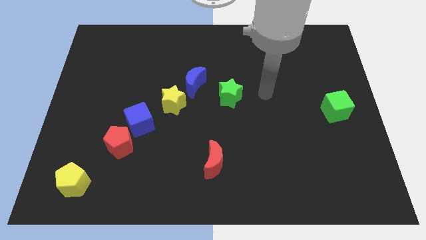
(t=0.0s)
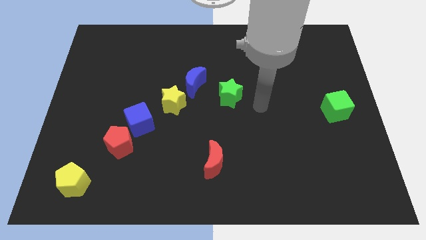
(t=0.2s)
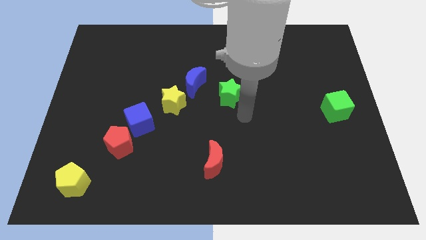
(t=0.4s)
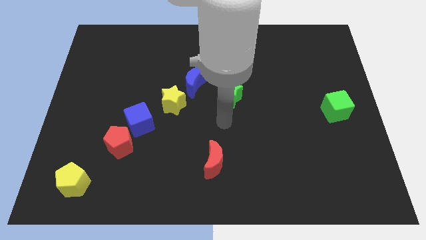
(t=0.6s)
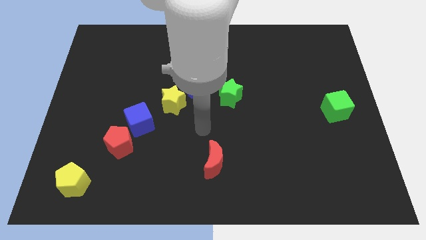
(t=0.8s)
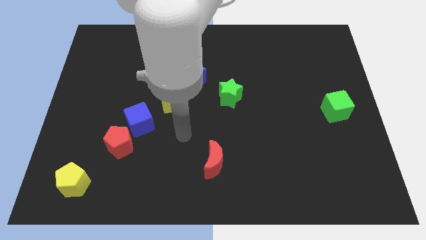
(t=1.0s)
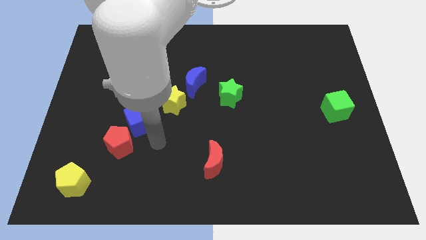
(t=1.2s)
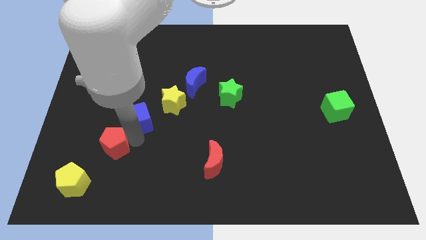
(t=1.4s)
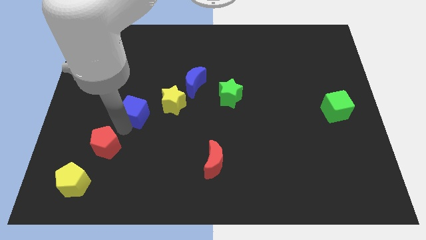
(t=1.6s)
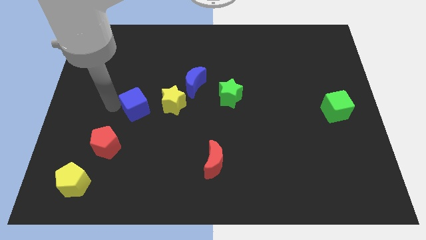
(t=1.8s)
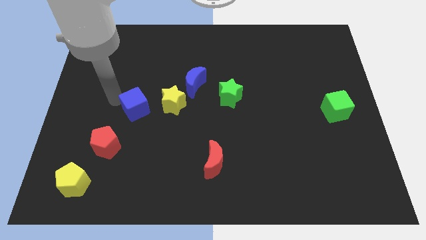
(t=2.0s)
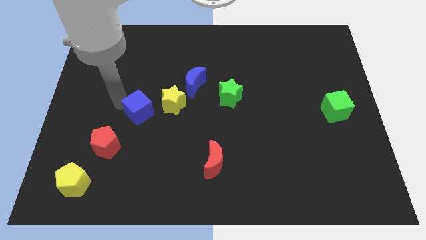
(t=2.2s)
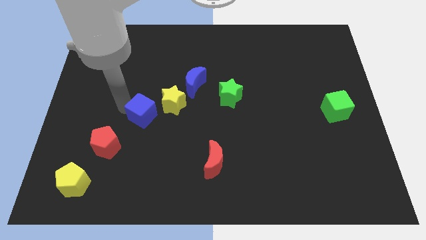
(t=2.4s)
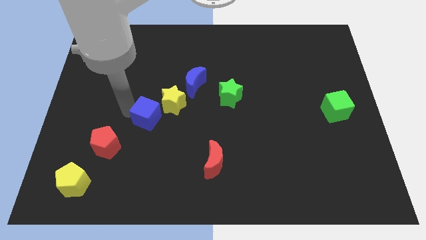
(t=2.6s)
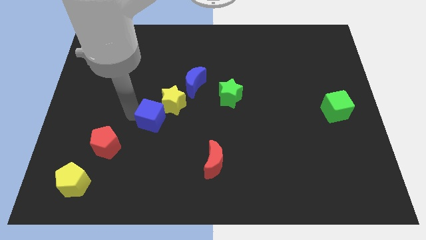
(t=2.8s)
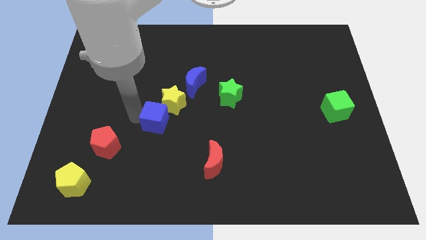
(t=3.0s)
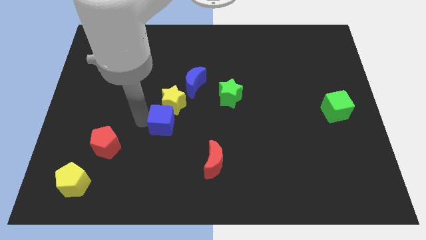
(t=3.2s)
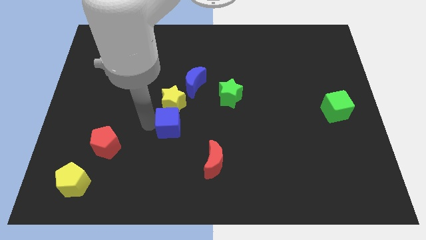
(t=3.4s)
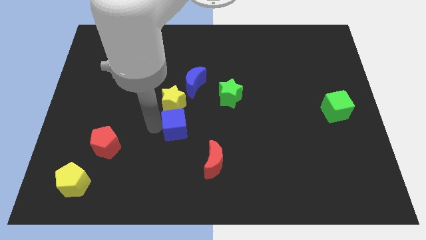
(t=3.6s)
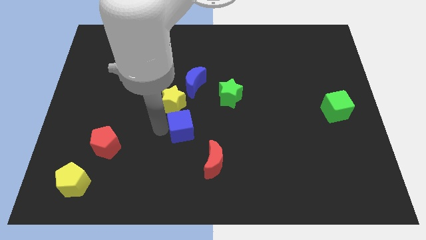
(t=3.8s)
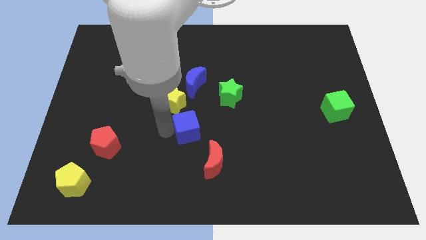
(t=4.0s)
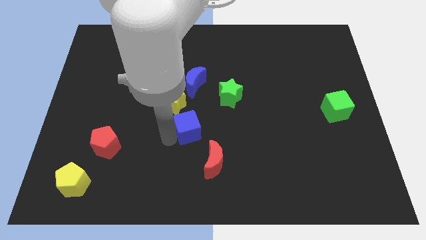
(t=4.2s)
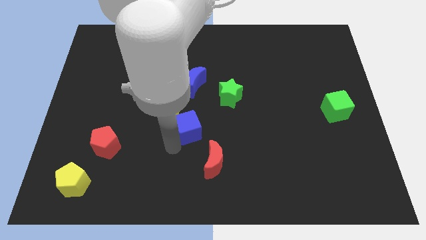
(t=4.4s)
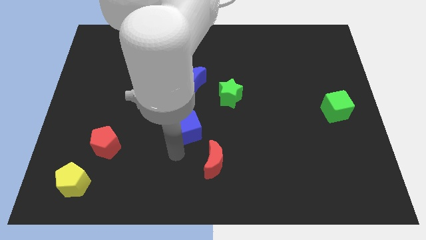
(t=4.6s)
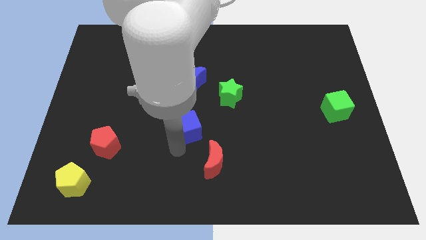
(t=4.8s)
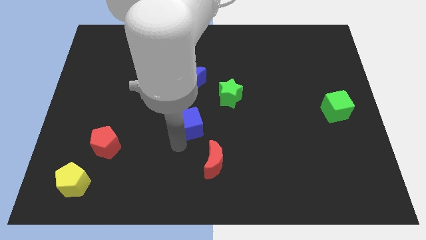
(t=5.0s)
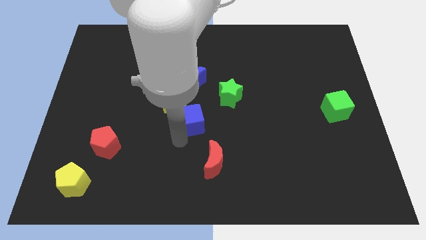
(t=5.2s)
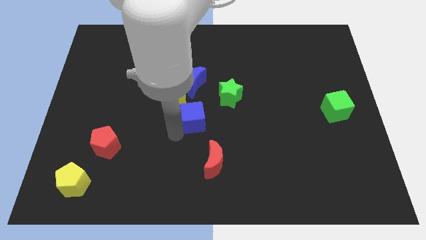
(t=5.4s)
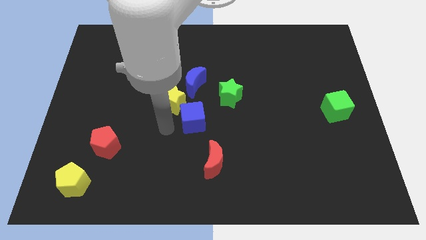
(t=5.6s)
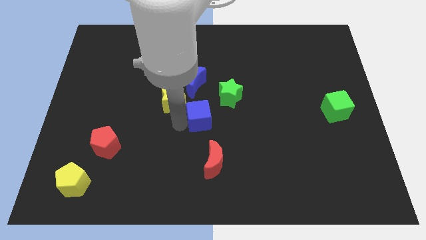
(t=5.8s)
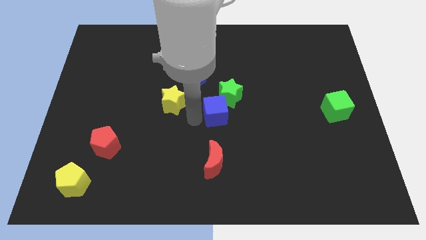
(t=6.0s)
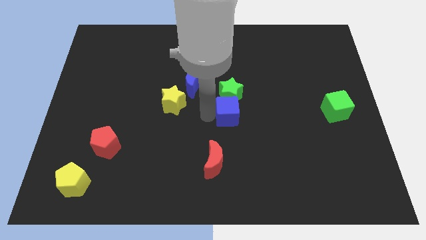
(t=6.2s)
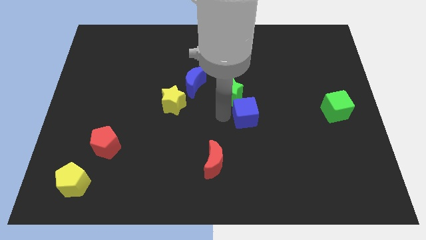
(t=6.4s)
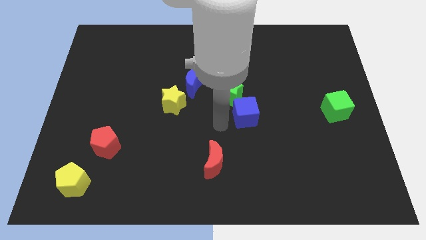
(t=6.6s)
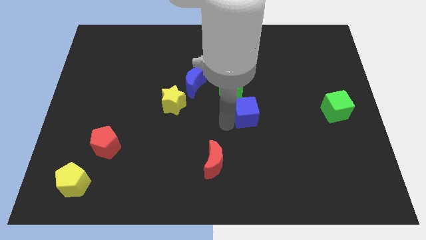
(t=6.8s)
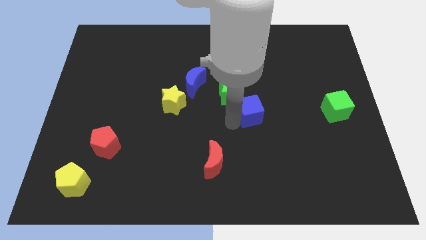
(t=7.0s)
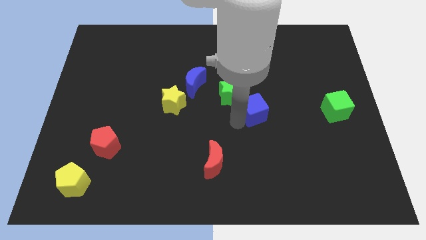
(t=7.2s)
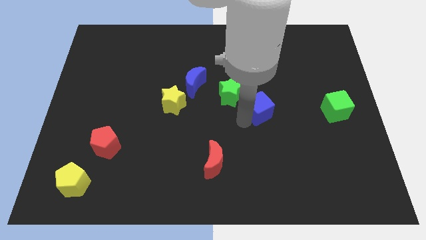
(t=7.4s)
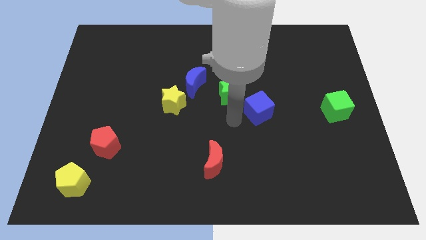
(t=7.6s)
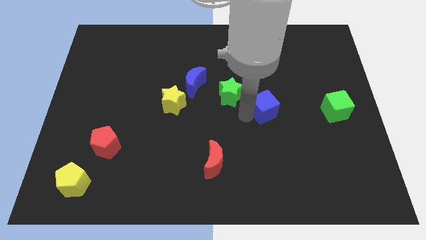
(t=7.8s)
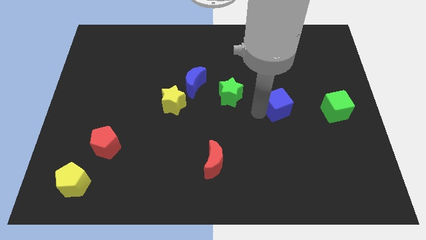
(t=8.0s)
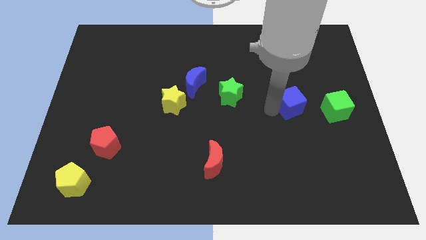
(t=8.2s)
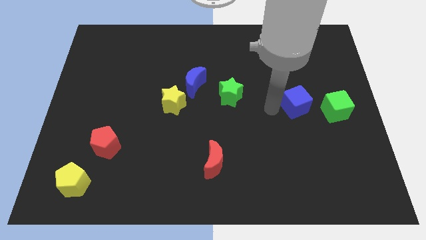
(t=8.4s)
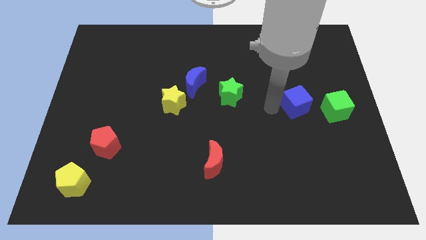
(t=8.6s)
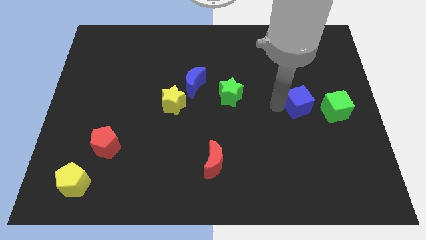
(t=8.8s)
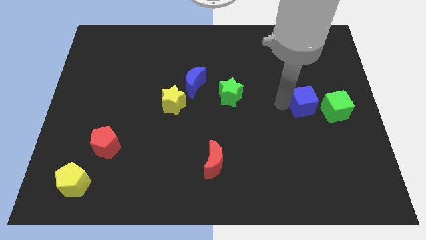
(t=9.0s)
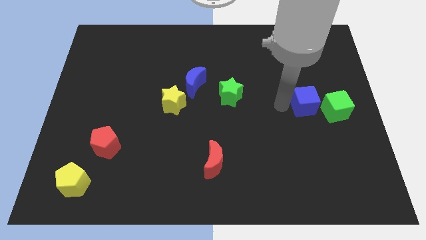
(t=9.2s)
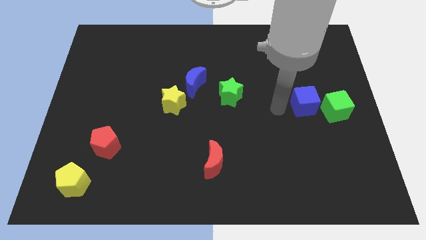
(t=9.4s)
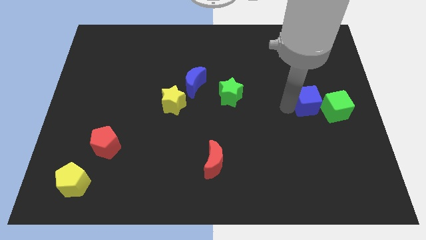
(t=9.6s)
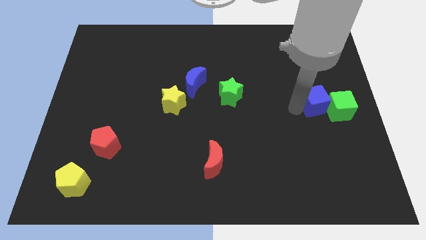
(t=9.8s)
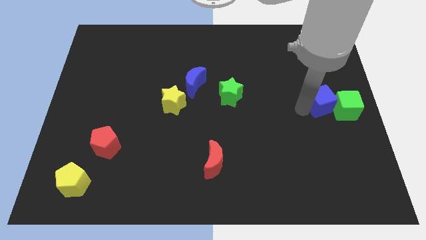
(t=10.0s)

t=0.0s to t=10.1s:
move the blue cube to the right side

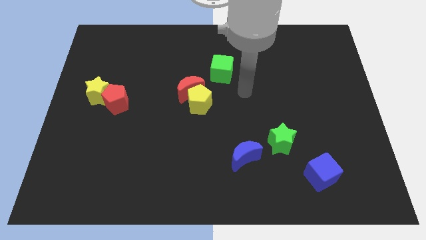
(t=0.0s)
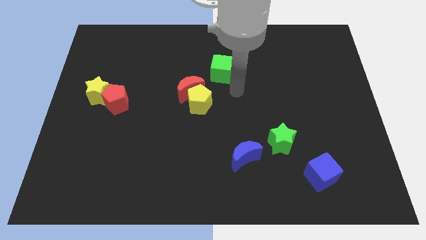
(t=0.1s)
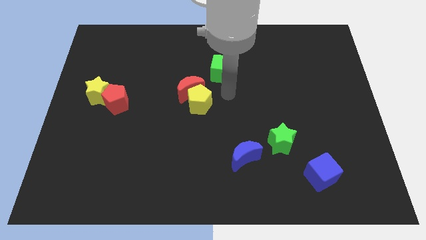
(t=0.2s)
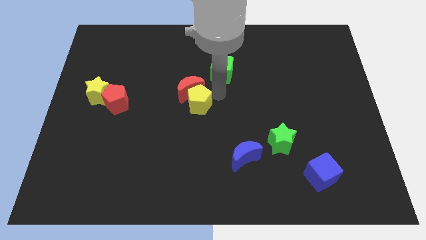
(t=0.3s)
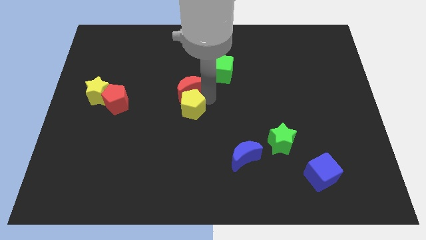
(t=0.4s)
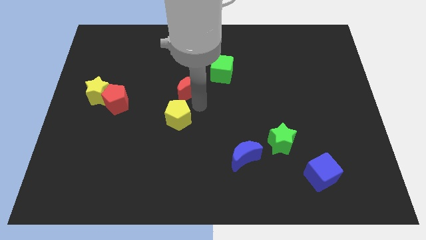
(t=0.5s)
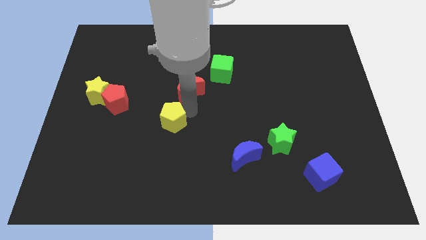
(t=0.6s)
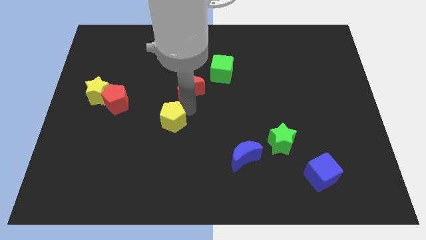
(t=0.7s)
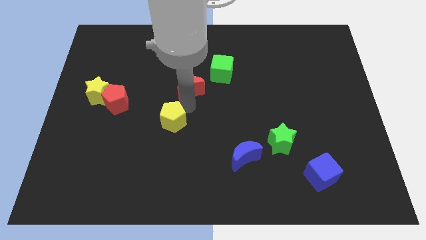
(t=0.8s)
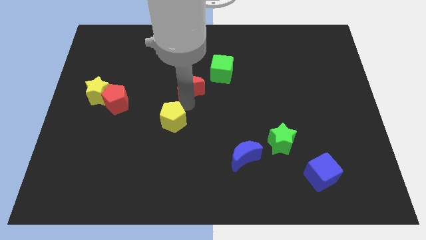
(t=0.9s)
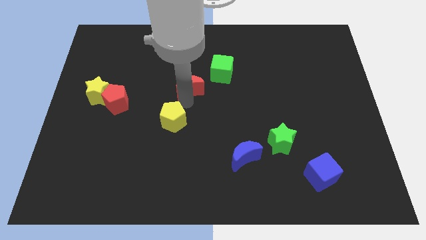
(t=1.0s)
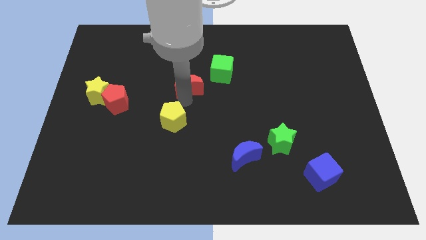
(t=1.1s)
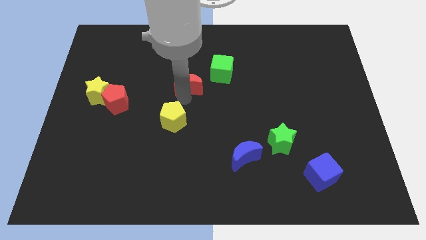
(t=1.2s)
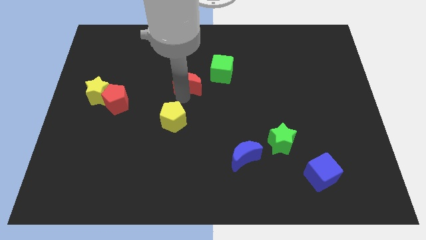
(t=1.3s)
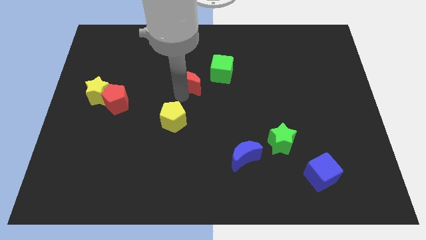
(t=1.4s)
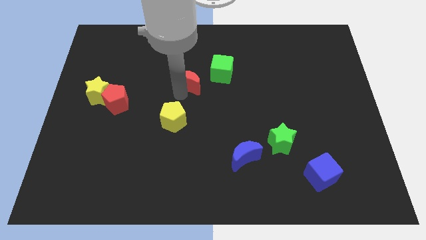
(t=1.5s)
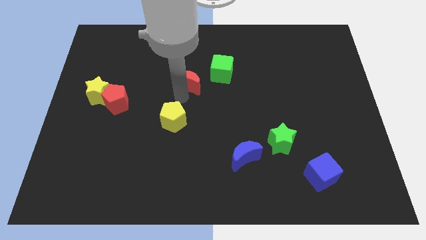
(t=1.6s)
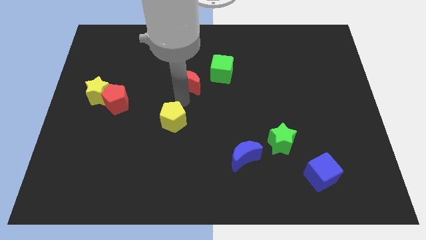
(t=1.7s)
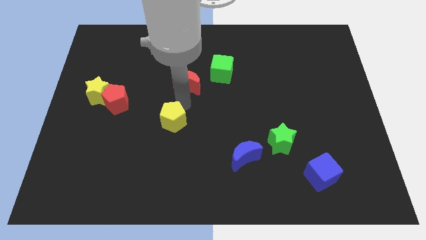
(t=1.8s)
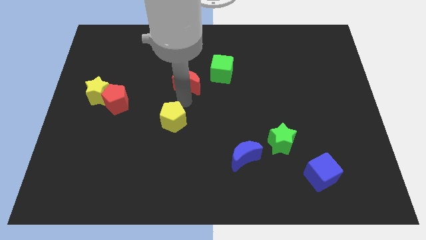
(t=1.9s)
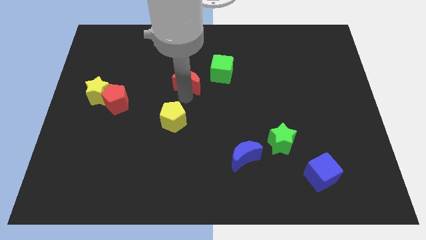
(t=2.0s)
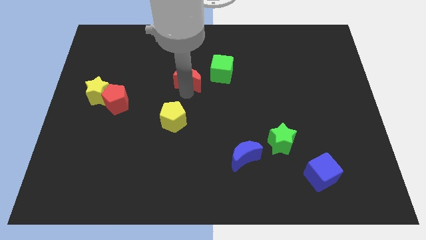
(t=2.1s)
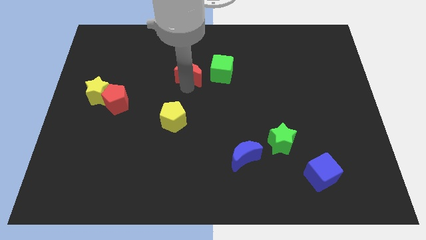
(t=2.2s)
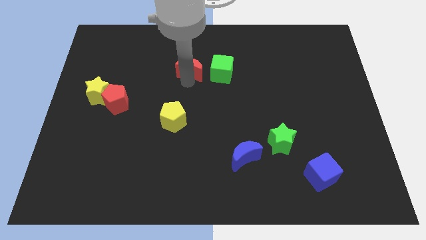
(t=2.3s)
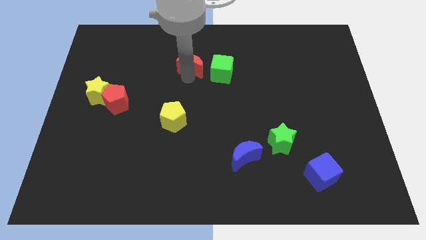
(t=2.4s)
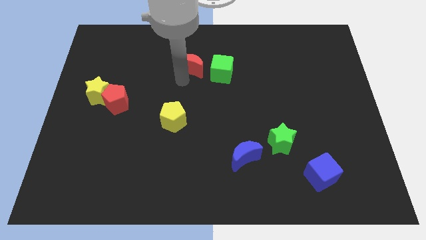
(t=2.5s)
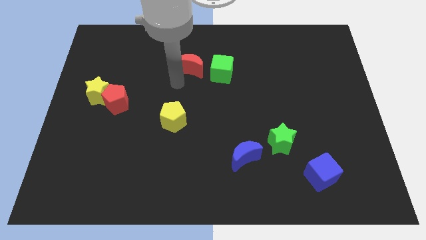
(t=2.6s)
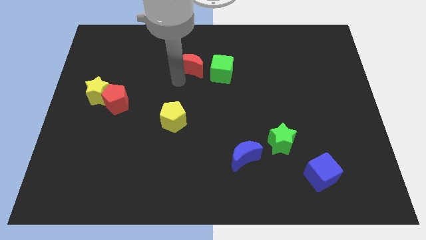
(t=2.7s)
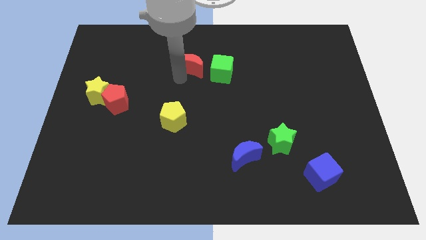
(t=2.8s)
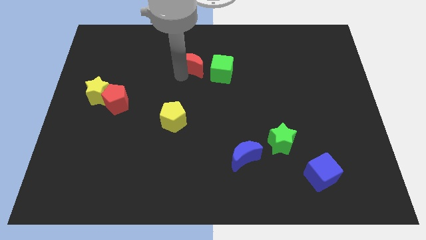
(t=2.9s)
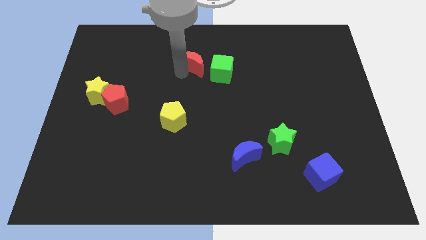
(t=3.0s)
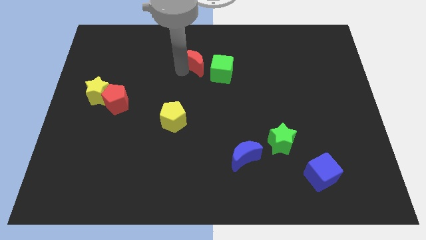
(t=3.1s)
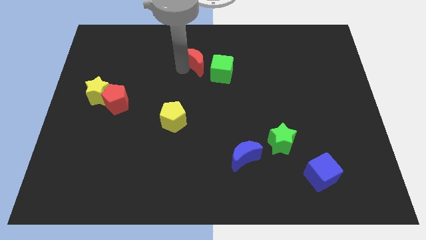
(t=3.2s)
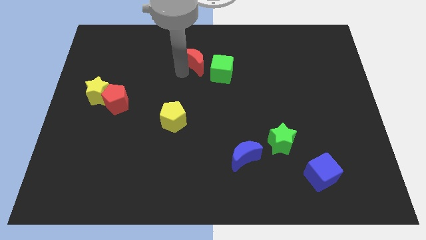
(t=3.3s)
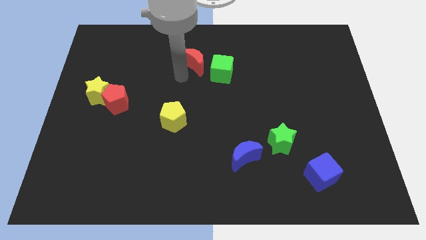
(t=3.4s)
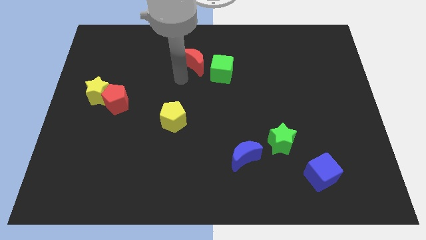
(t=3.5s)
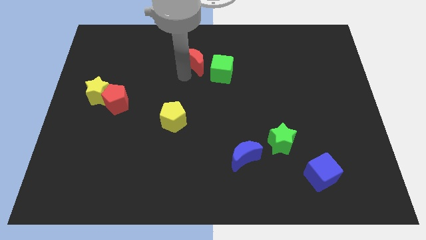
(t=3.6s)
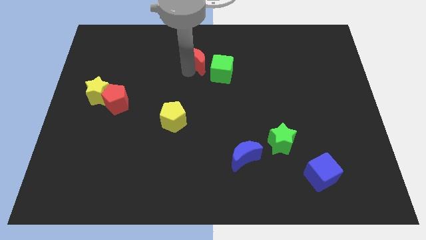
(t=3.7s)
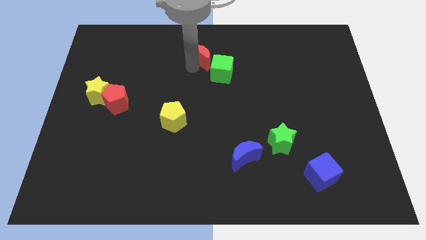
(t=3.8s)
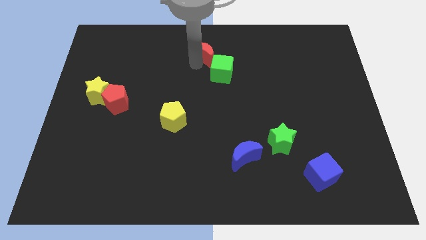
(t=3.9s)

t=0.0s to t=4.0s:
slide the red moon to the top side
